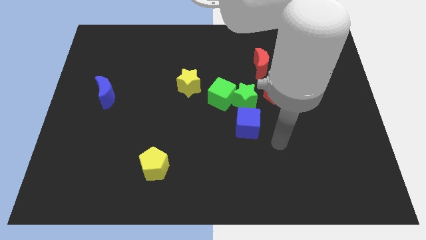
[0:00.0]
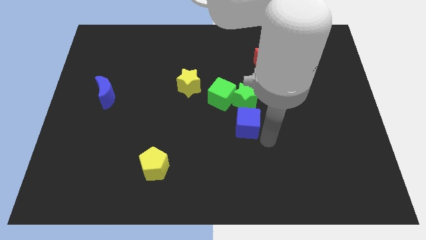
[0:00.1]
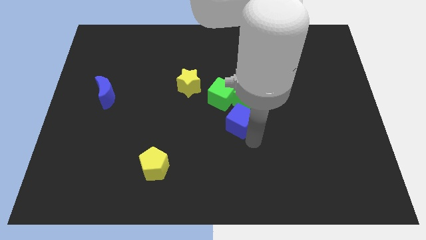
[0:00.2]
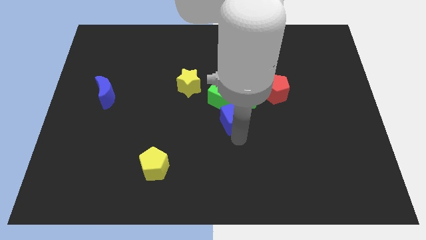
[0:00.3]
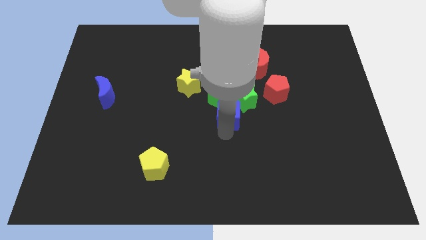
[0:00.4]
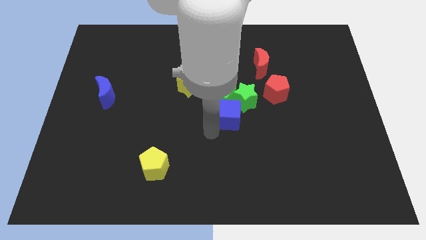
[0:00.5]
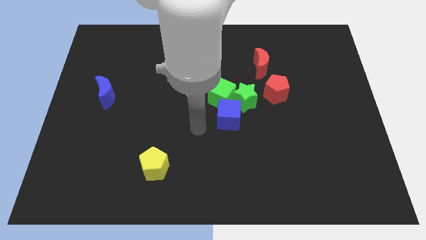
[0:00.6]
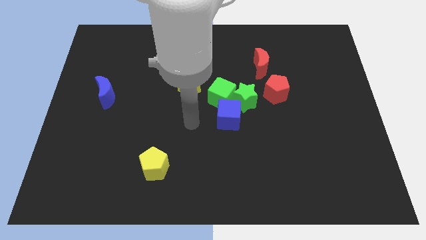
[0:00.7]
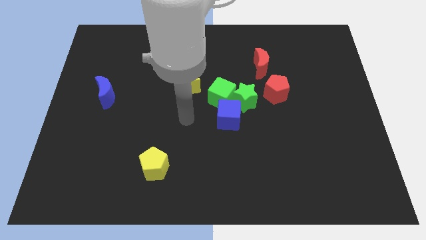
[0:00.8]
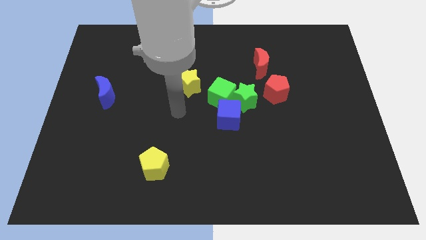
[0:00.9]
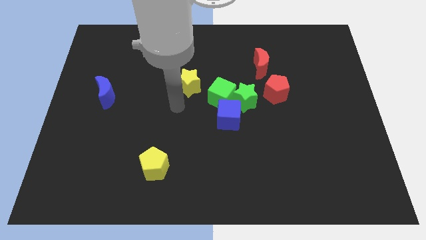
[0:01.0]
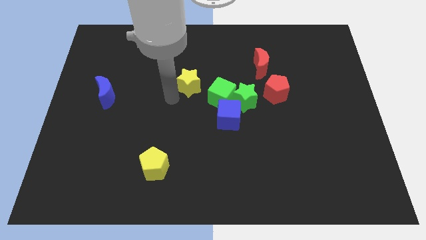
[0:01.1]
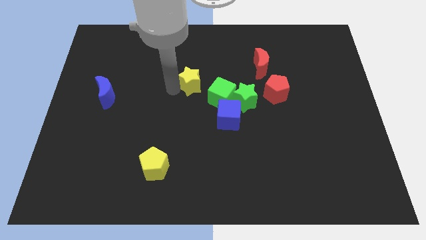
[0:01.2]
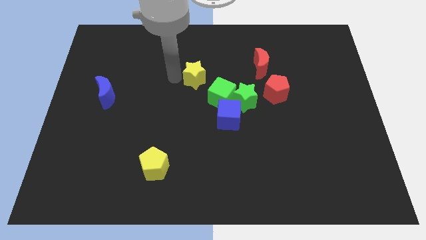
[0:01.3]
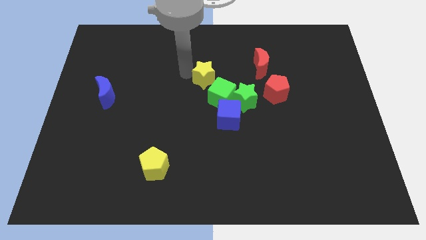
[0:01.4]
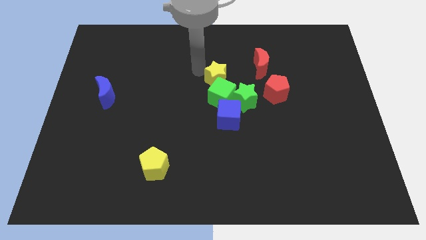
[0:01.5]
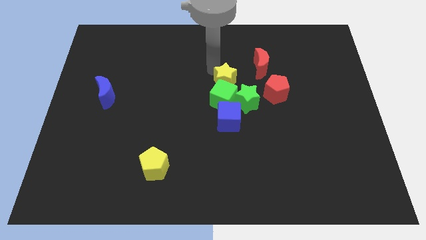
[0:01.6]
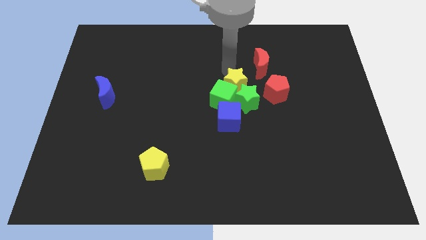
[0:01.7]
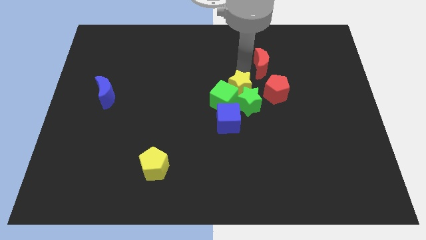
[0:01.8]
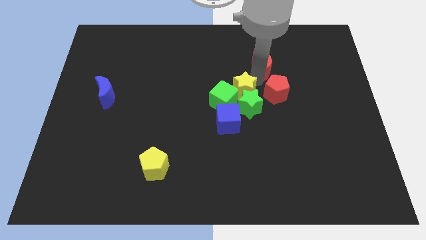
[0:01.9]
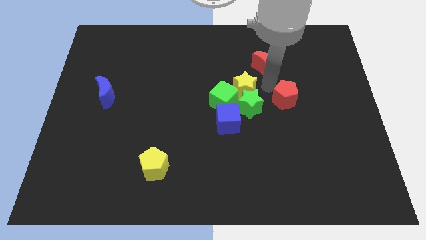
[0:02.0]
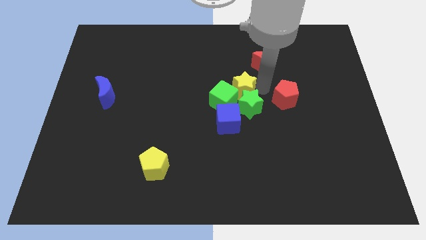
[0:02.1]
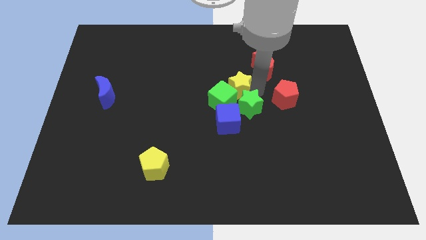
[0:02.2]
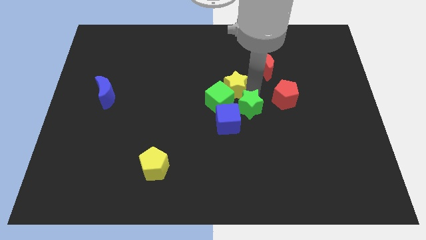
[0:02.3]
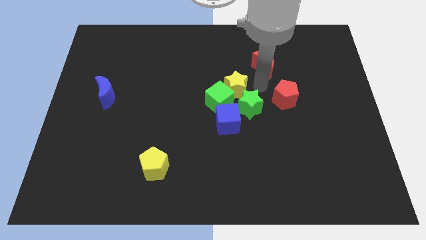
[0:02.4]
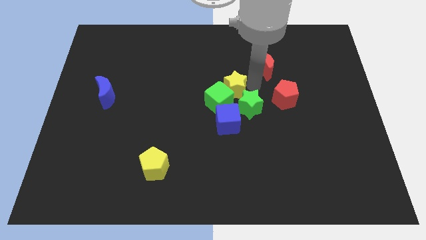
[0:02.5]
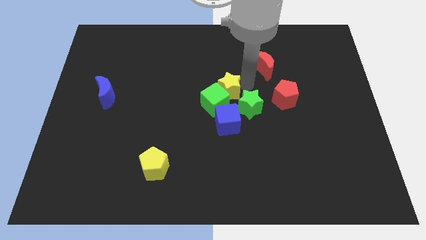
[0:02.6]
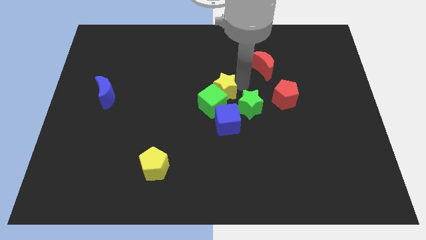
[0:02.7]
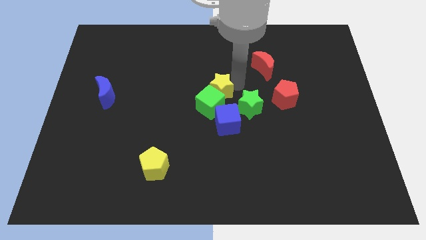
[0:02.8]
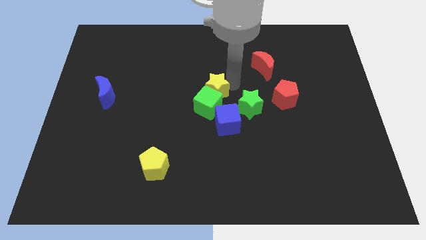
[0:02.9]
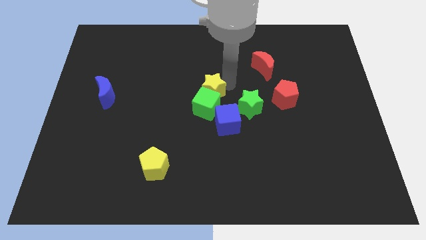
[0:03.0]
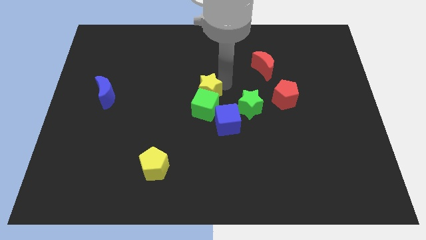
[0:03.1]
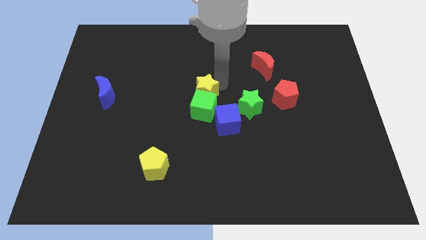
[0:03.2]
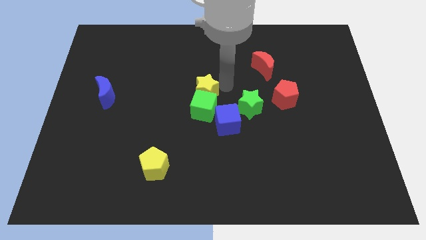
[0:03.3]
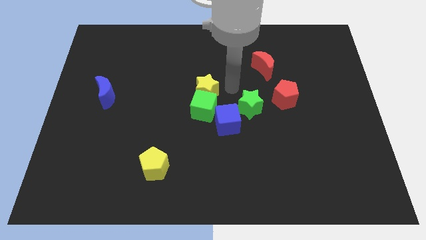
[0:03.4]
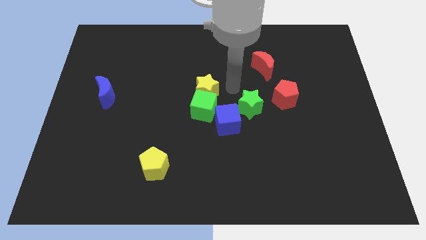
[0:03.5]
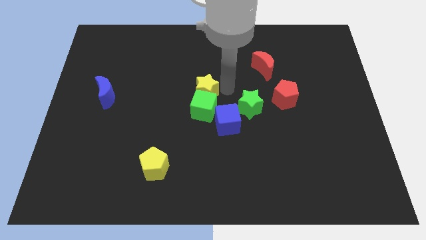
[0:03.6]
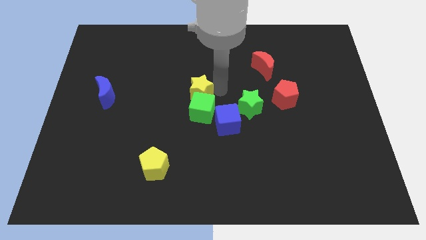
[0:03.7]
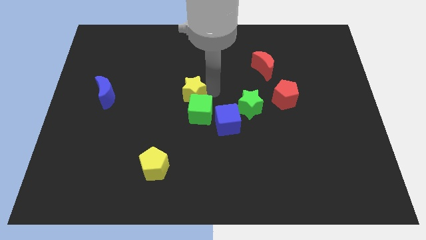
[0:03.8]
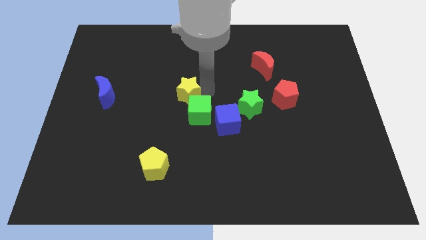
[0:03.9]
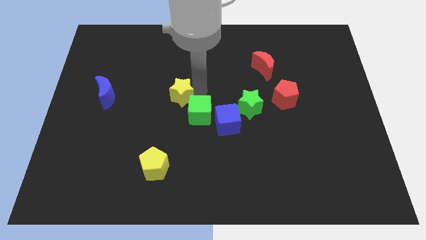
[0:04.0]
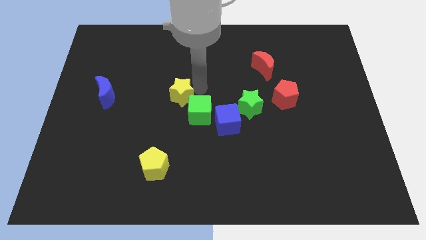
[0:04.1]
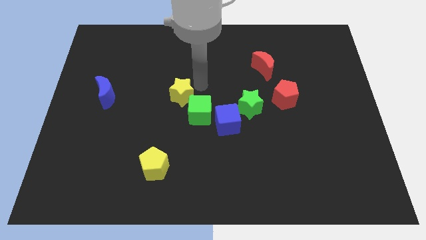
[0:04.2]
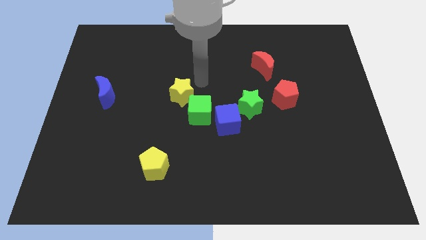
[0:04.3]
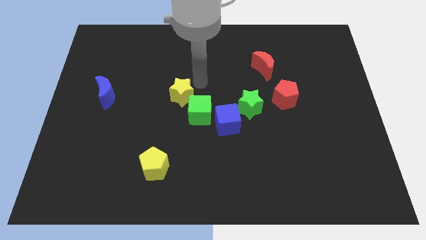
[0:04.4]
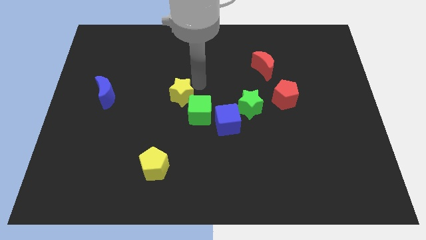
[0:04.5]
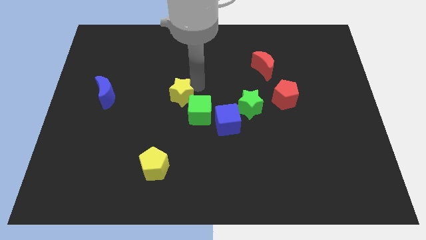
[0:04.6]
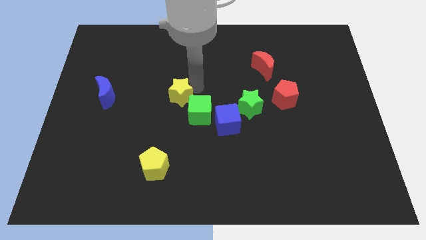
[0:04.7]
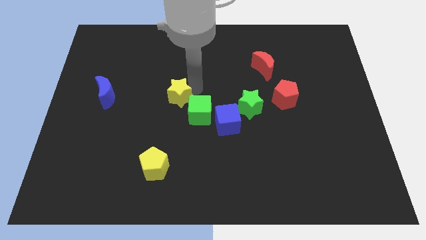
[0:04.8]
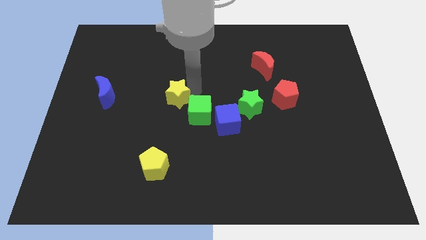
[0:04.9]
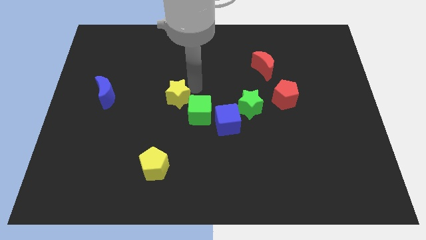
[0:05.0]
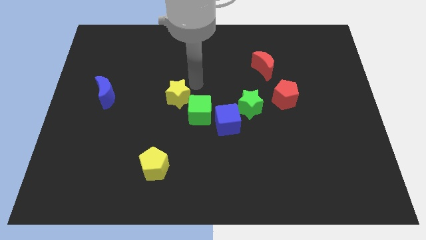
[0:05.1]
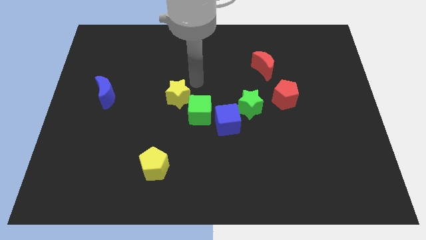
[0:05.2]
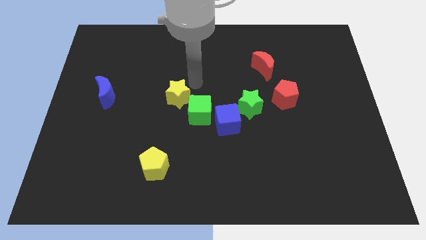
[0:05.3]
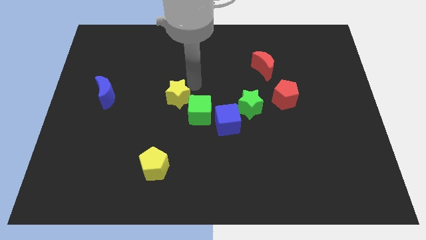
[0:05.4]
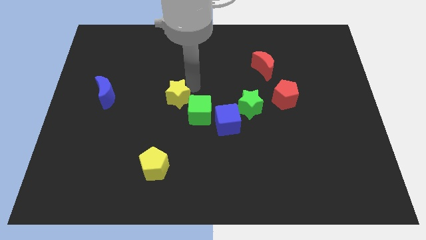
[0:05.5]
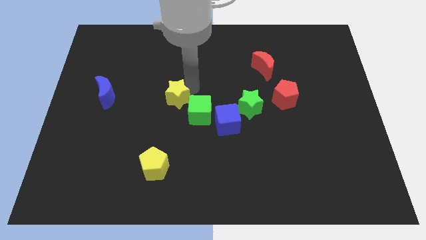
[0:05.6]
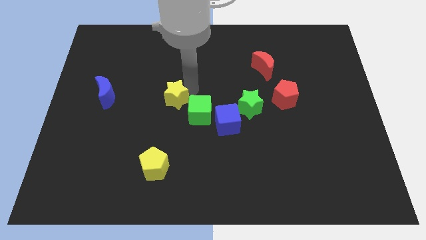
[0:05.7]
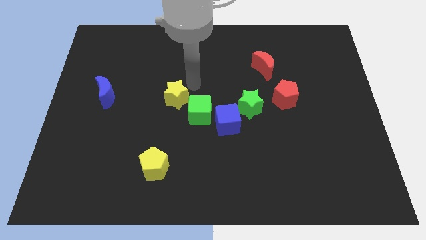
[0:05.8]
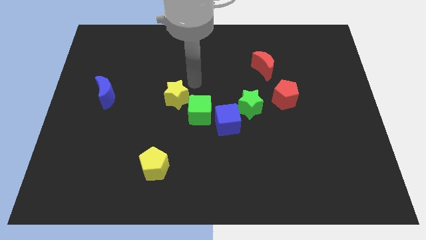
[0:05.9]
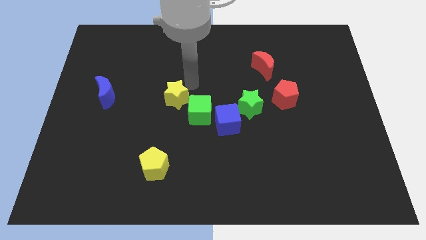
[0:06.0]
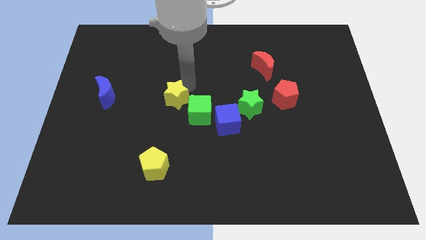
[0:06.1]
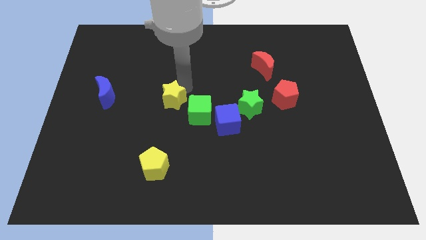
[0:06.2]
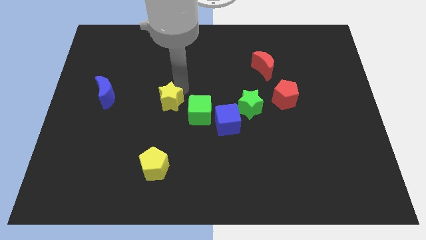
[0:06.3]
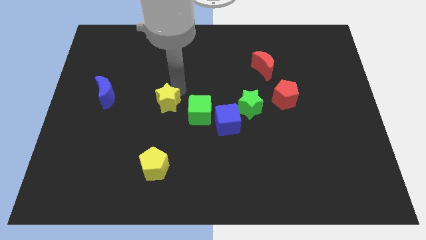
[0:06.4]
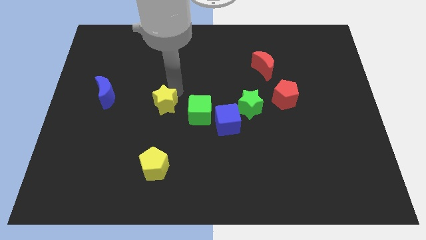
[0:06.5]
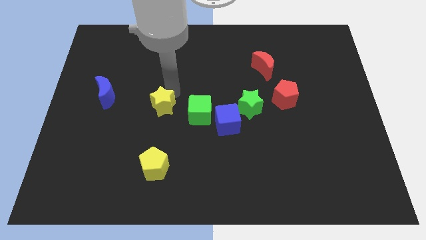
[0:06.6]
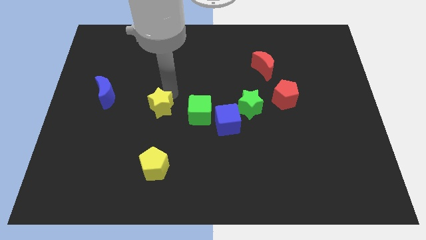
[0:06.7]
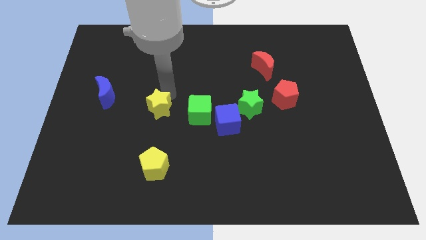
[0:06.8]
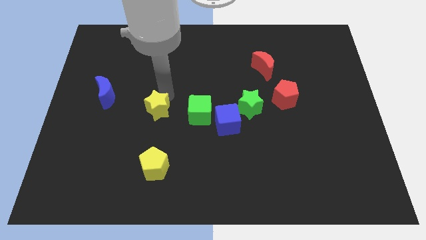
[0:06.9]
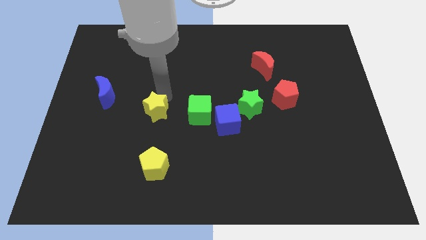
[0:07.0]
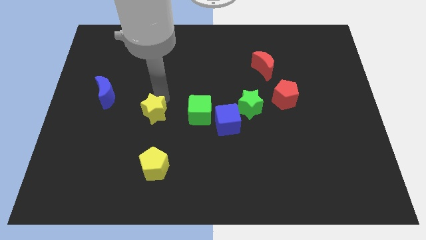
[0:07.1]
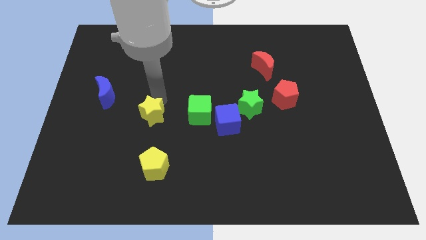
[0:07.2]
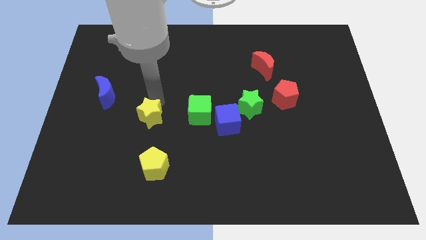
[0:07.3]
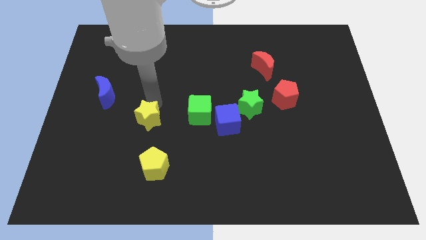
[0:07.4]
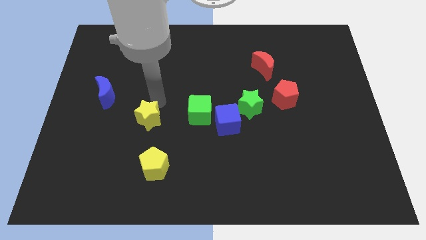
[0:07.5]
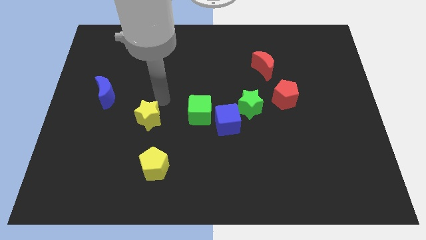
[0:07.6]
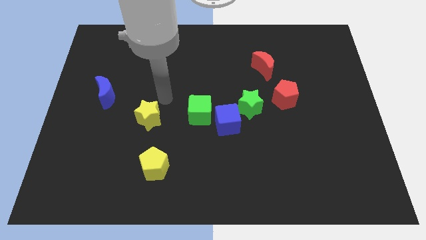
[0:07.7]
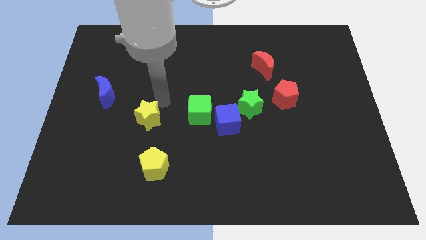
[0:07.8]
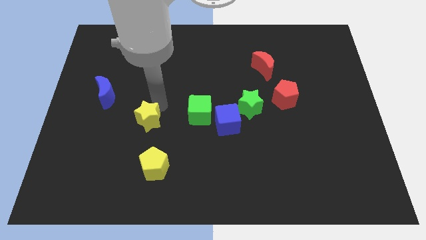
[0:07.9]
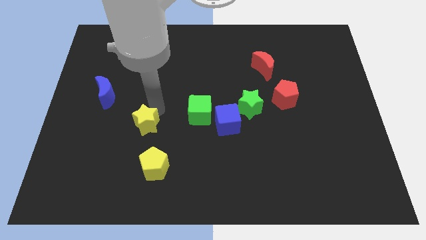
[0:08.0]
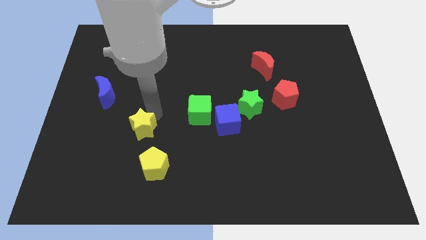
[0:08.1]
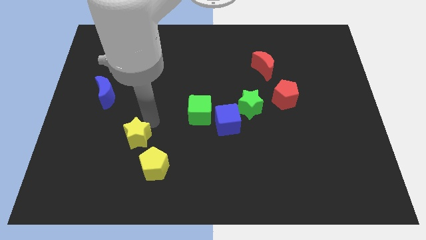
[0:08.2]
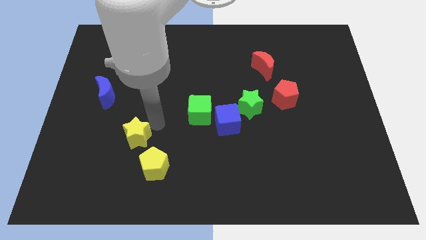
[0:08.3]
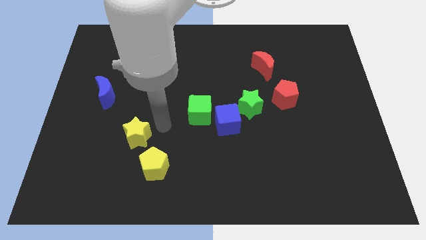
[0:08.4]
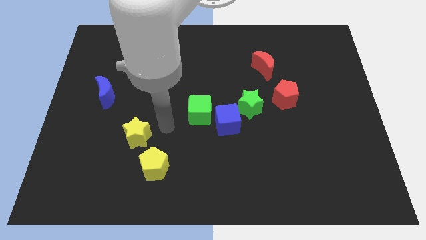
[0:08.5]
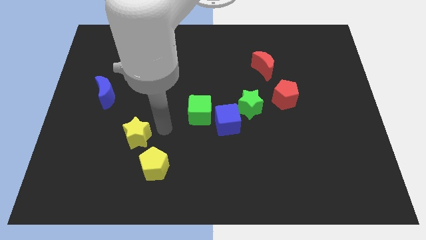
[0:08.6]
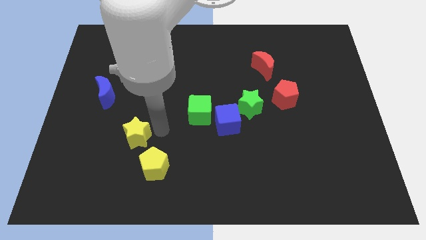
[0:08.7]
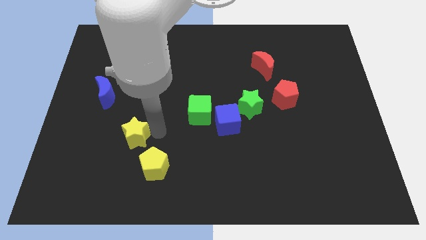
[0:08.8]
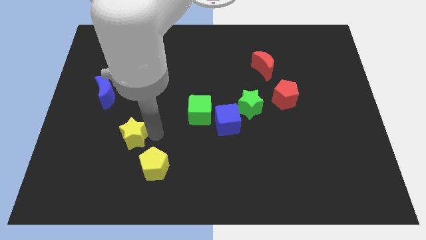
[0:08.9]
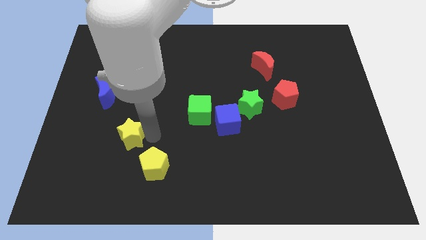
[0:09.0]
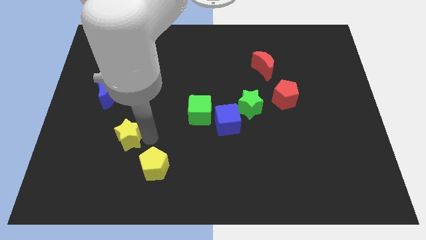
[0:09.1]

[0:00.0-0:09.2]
move the yellow star diagonally down and to the left
